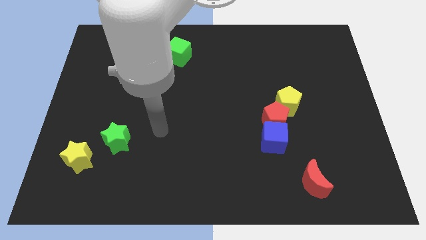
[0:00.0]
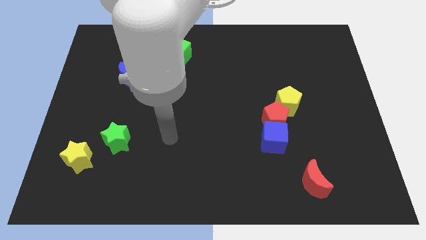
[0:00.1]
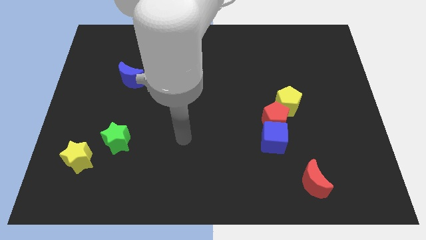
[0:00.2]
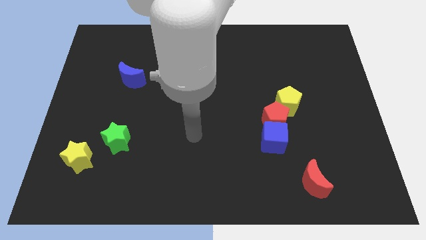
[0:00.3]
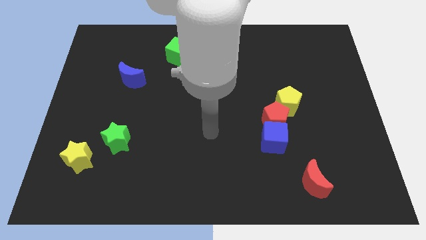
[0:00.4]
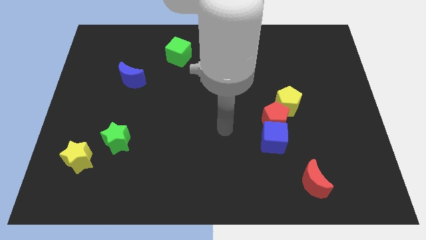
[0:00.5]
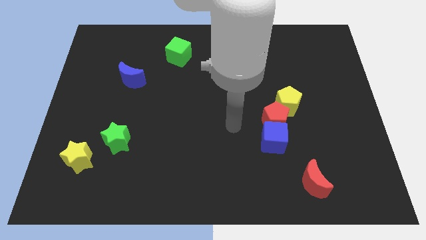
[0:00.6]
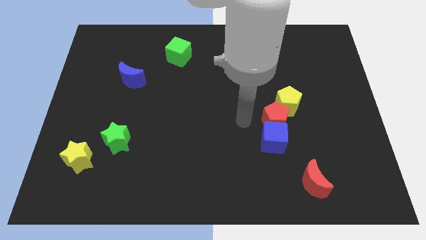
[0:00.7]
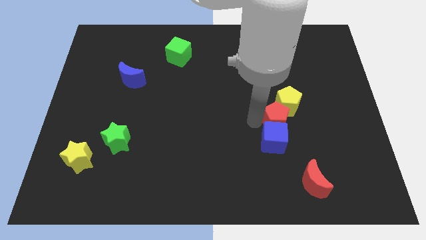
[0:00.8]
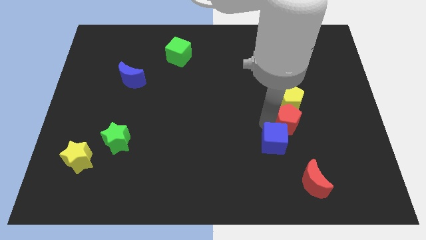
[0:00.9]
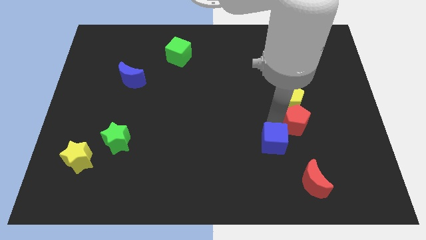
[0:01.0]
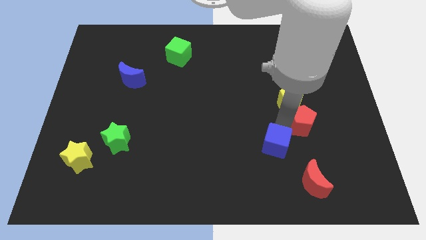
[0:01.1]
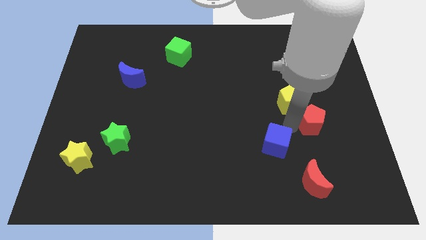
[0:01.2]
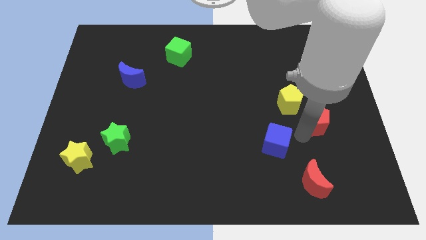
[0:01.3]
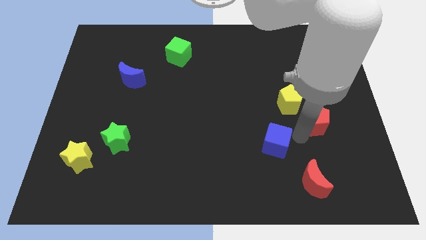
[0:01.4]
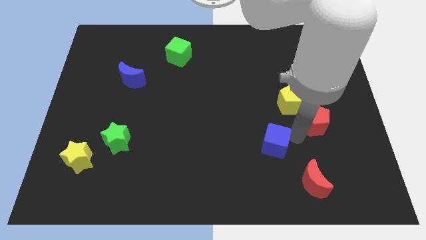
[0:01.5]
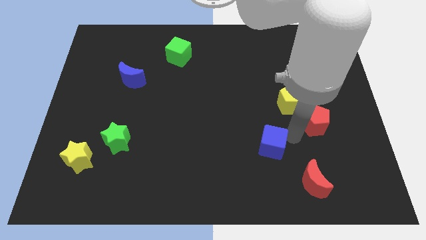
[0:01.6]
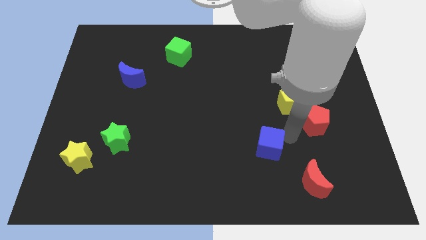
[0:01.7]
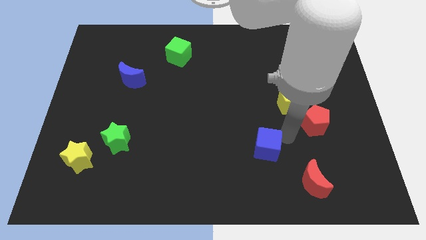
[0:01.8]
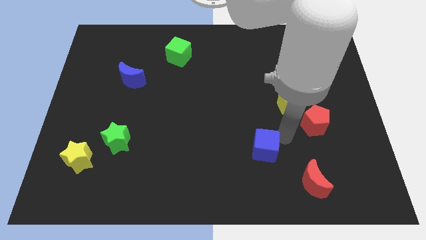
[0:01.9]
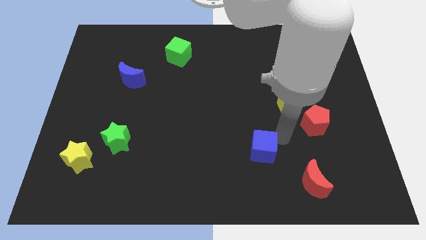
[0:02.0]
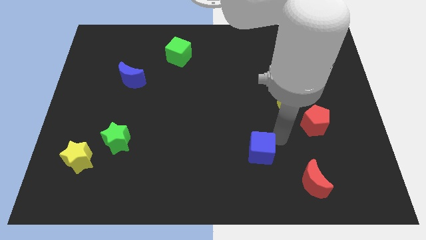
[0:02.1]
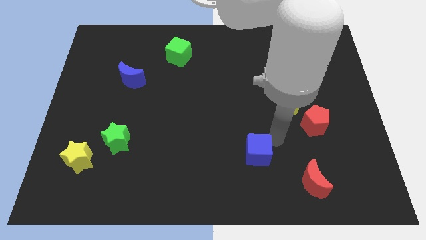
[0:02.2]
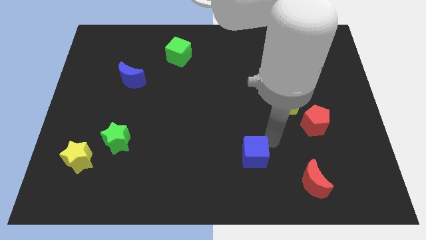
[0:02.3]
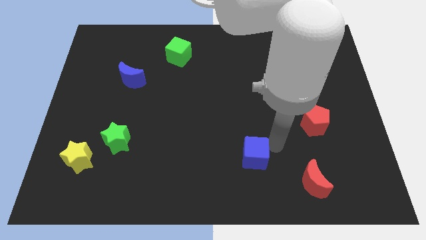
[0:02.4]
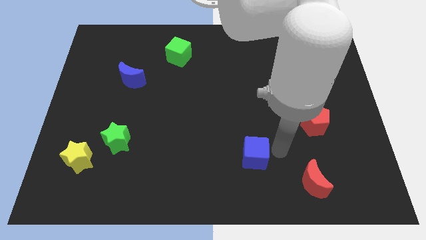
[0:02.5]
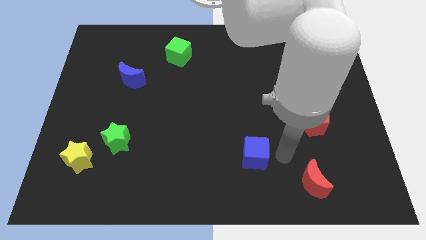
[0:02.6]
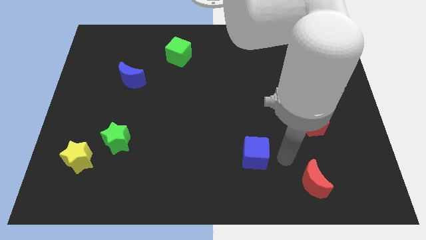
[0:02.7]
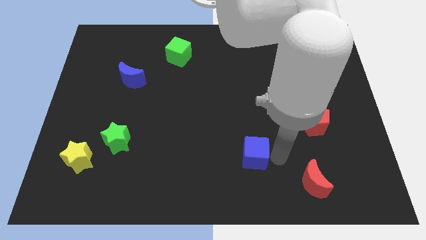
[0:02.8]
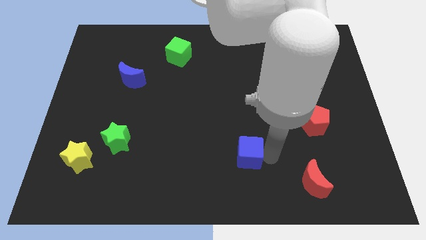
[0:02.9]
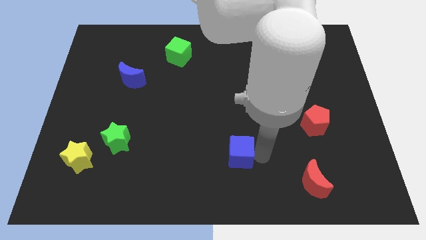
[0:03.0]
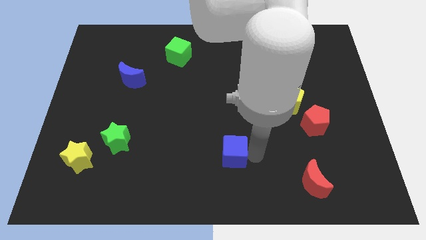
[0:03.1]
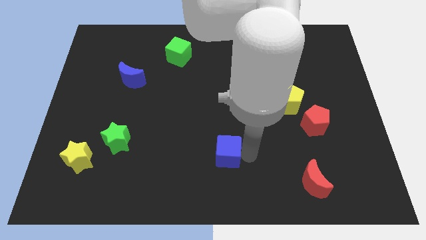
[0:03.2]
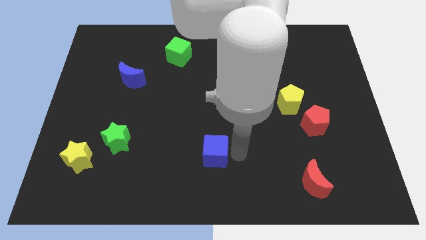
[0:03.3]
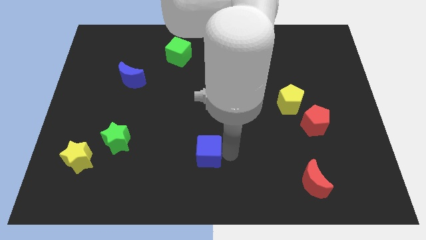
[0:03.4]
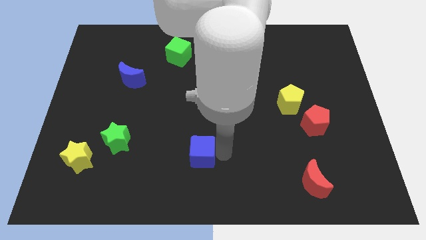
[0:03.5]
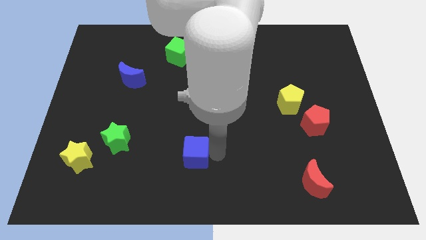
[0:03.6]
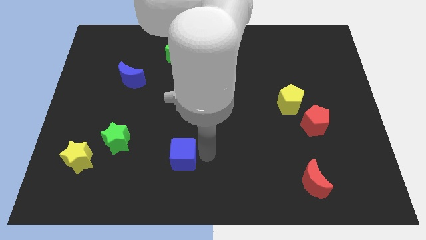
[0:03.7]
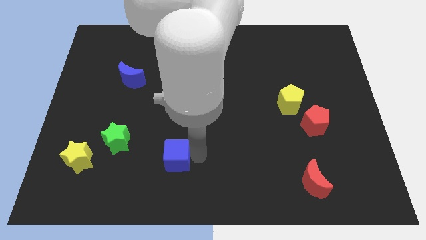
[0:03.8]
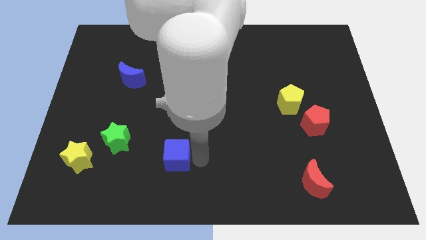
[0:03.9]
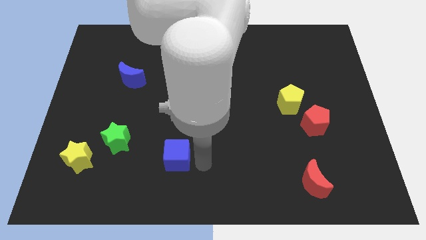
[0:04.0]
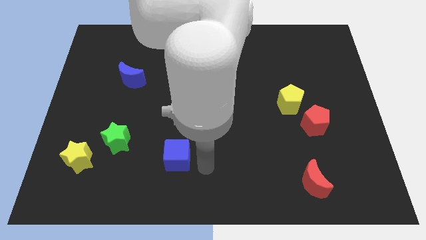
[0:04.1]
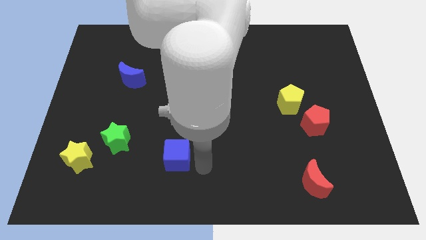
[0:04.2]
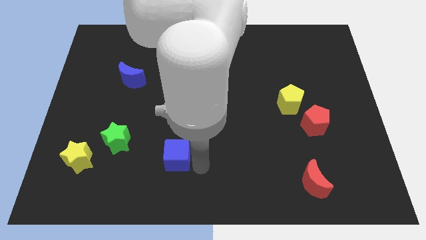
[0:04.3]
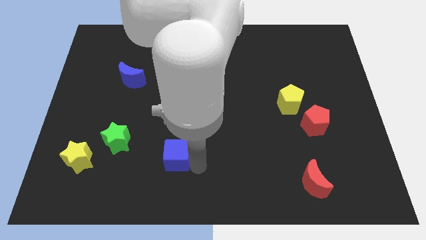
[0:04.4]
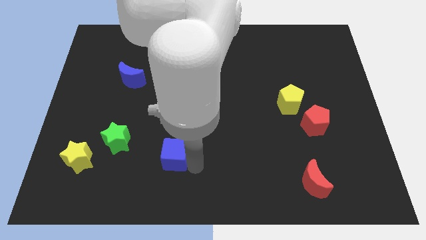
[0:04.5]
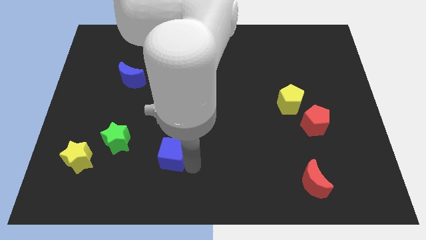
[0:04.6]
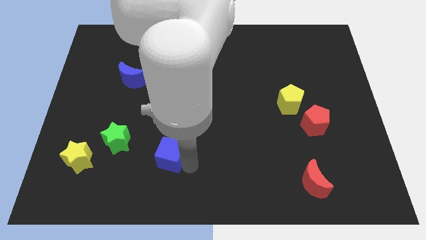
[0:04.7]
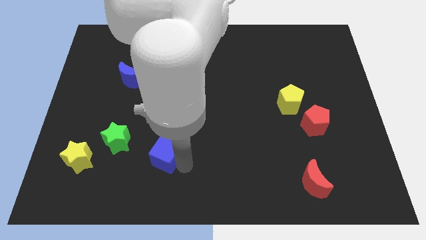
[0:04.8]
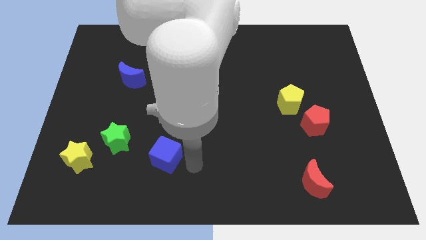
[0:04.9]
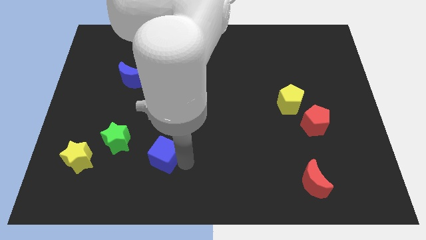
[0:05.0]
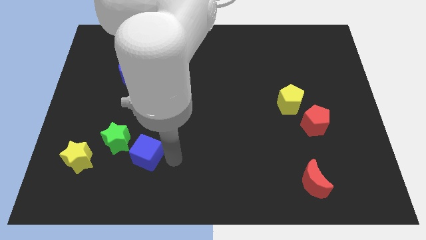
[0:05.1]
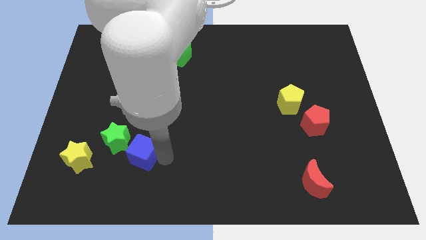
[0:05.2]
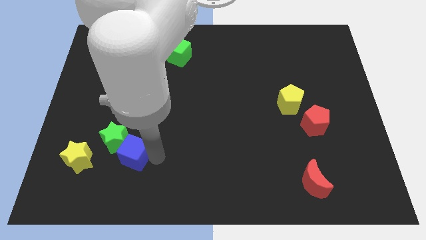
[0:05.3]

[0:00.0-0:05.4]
put the blue cube to the green star

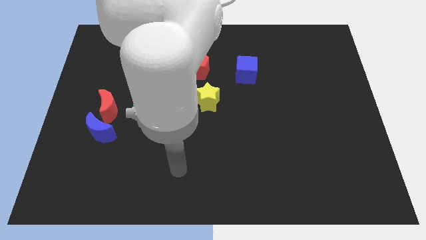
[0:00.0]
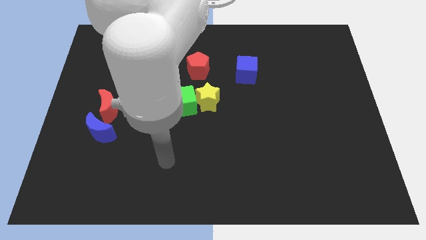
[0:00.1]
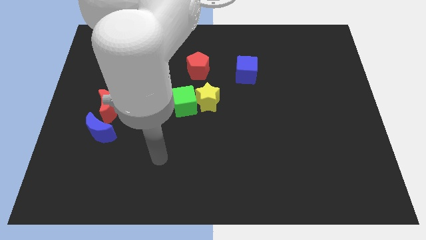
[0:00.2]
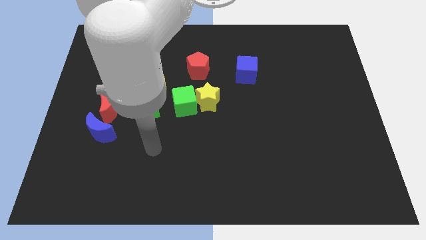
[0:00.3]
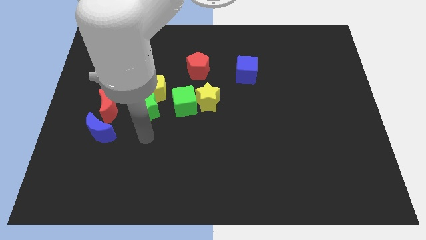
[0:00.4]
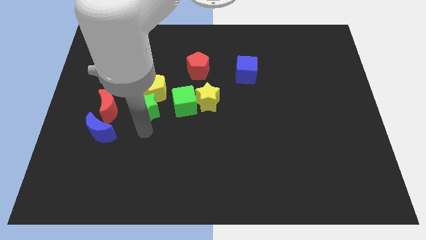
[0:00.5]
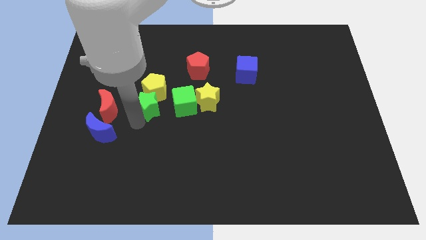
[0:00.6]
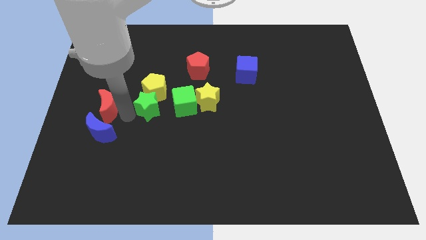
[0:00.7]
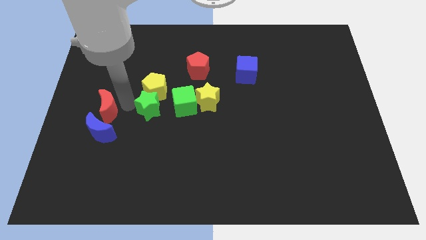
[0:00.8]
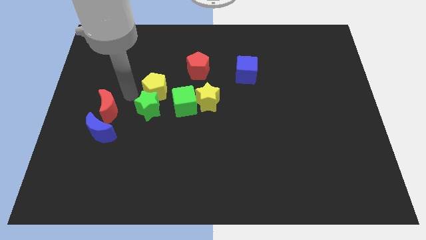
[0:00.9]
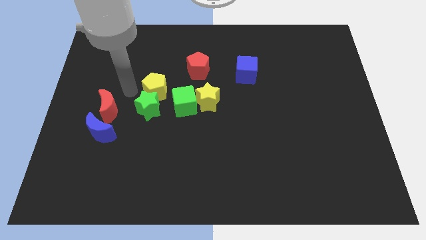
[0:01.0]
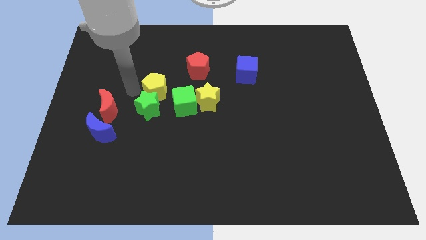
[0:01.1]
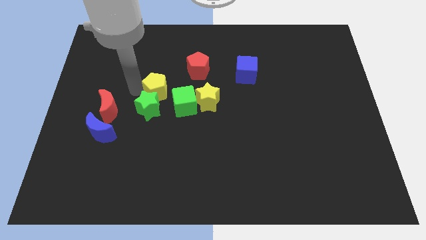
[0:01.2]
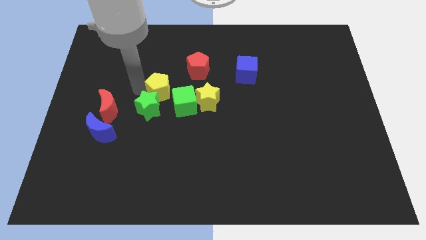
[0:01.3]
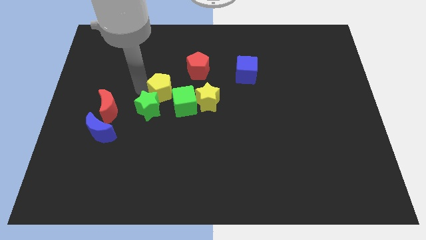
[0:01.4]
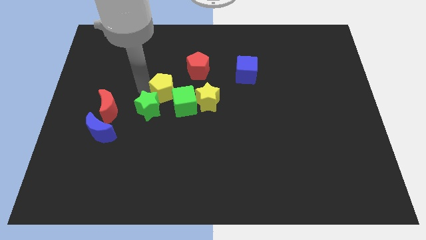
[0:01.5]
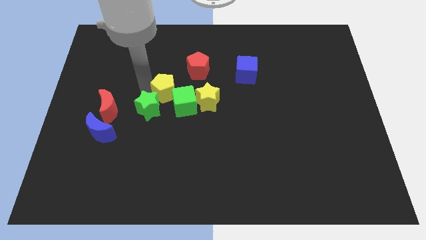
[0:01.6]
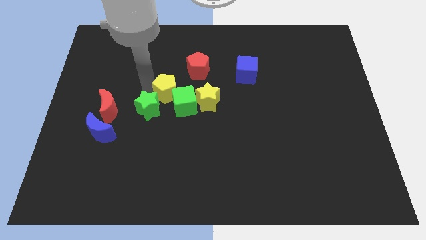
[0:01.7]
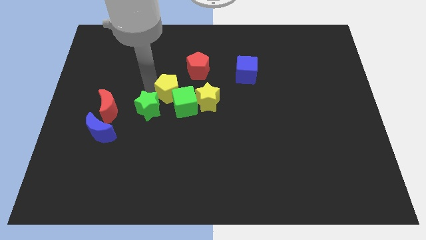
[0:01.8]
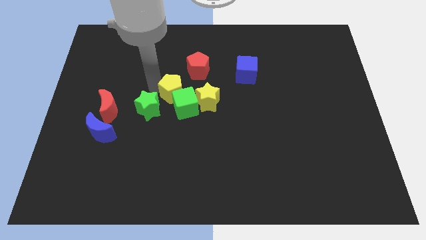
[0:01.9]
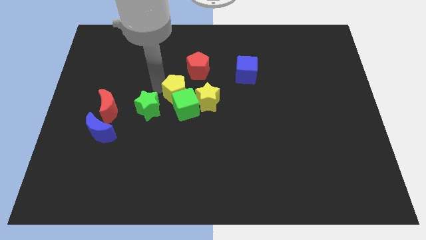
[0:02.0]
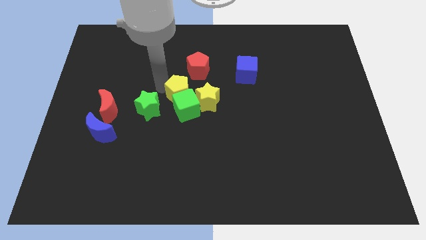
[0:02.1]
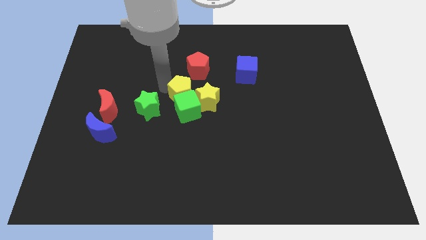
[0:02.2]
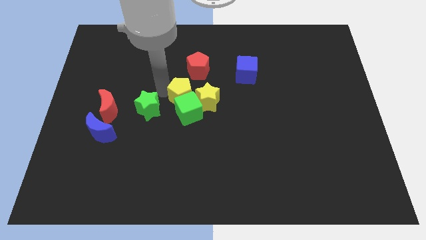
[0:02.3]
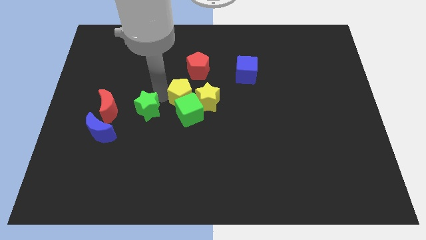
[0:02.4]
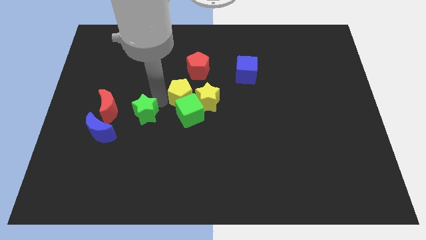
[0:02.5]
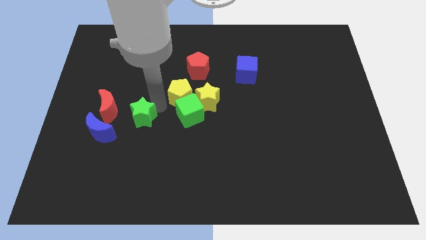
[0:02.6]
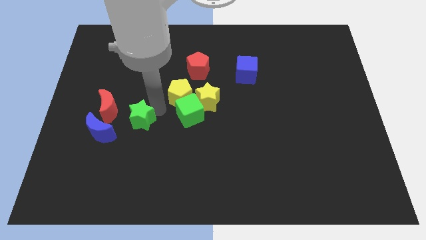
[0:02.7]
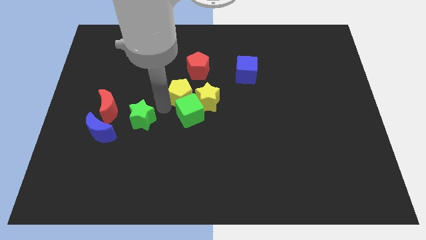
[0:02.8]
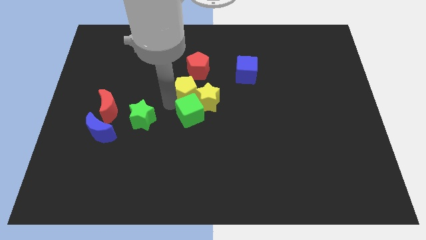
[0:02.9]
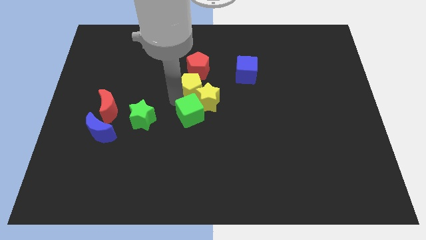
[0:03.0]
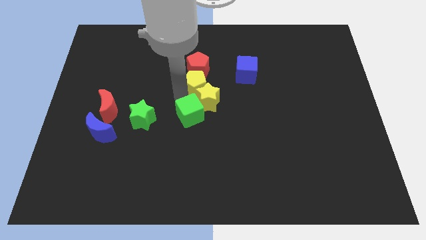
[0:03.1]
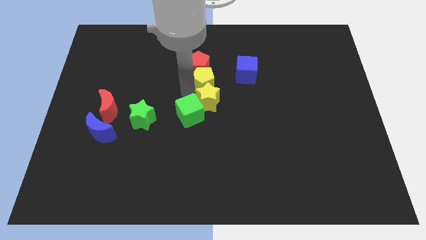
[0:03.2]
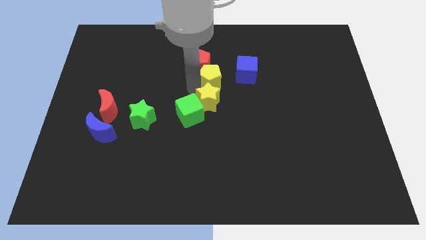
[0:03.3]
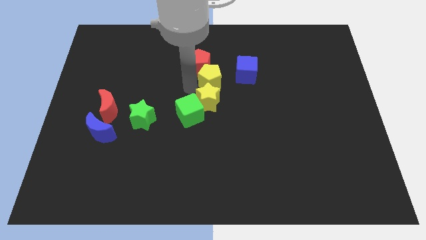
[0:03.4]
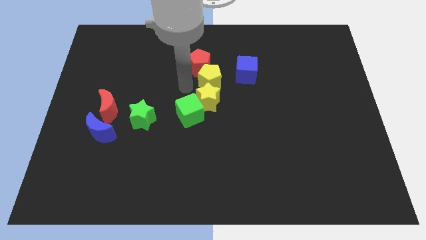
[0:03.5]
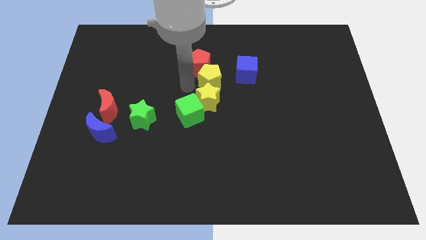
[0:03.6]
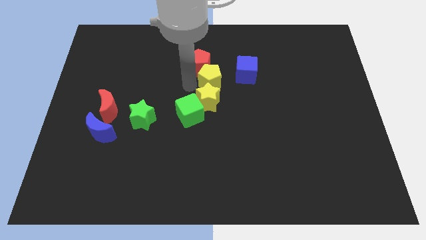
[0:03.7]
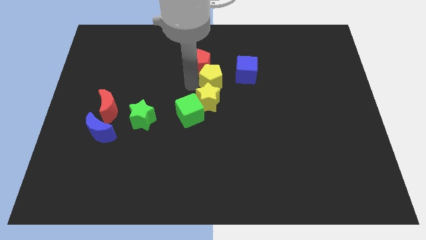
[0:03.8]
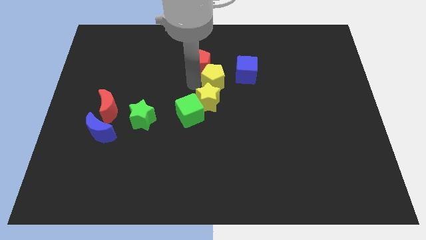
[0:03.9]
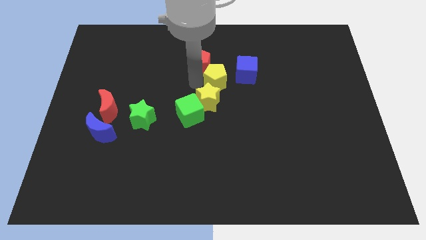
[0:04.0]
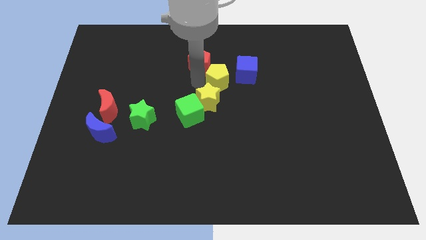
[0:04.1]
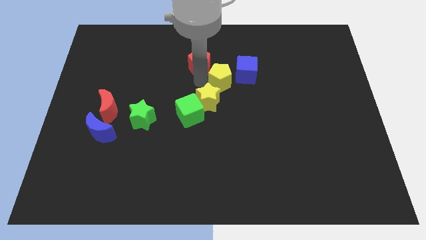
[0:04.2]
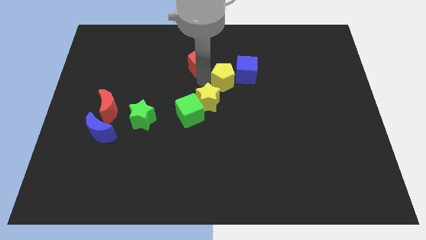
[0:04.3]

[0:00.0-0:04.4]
push the yellow pentagon next to the blue cube
